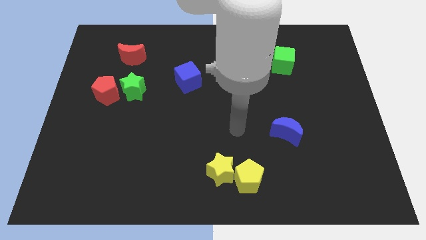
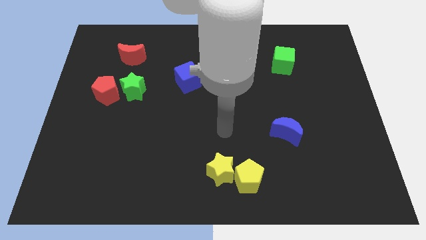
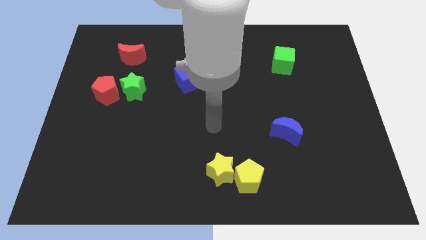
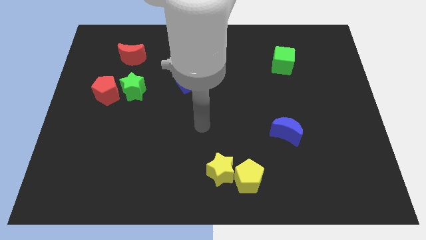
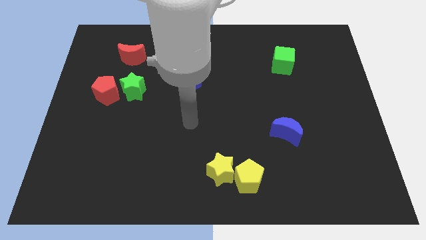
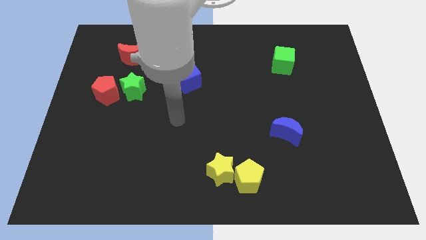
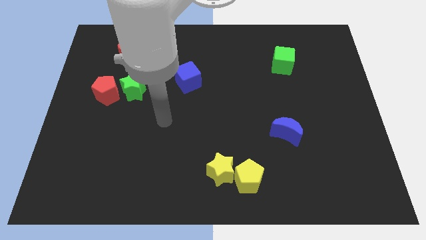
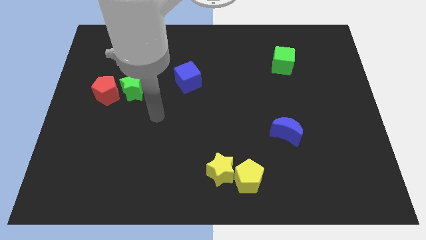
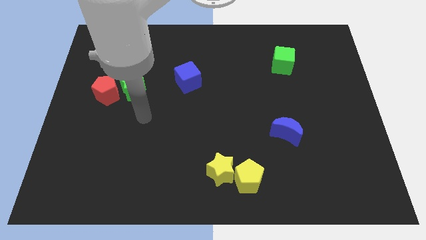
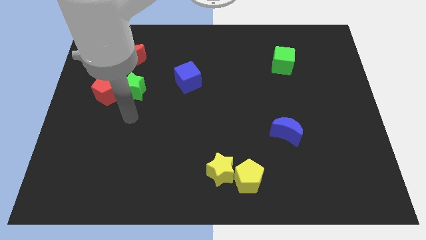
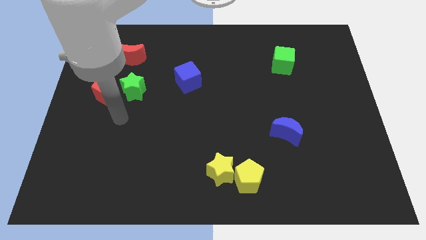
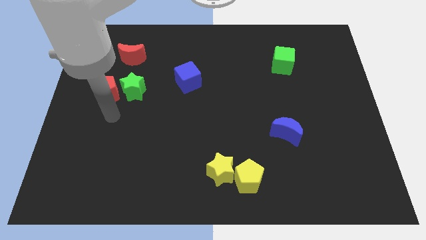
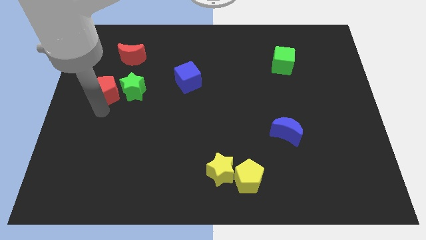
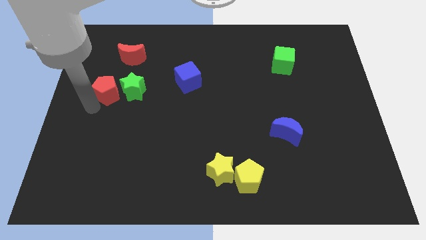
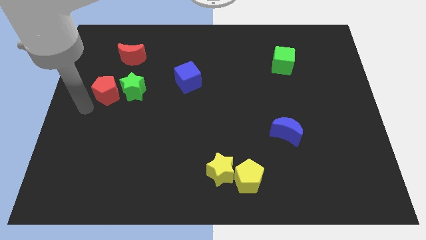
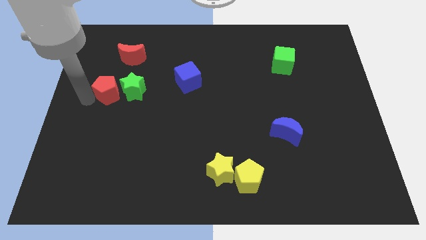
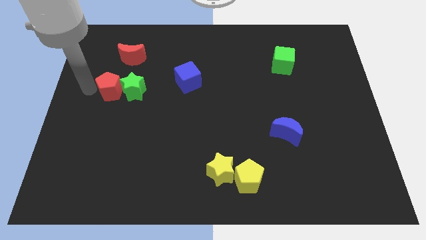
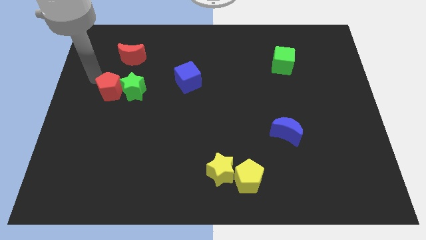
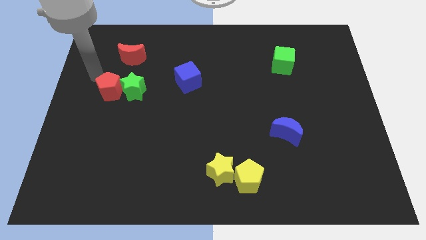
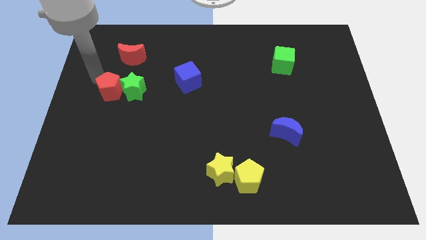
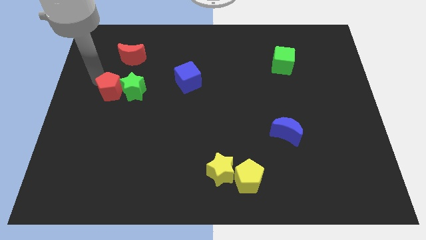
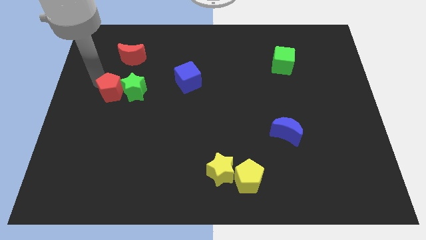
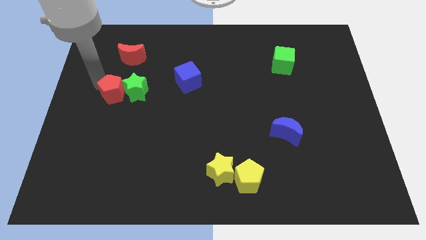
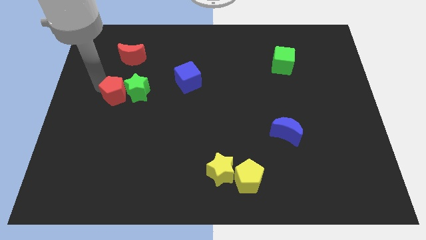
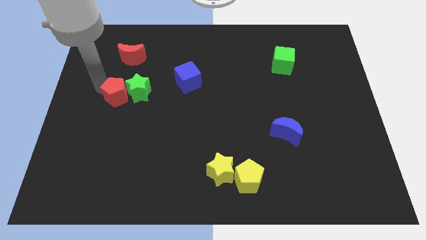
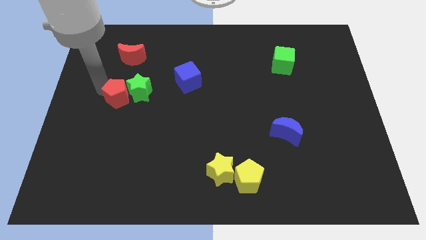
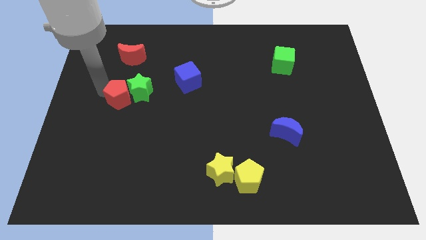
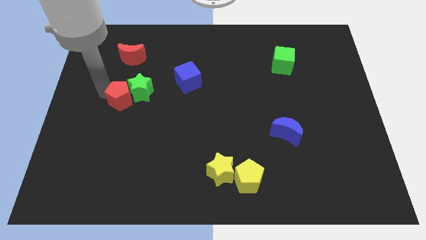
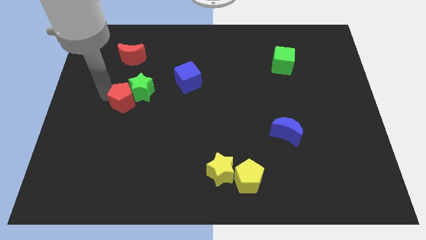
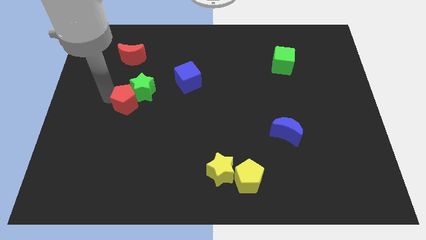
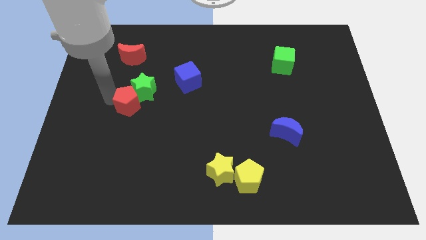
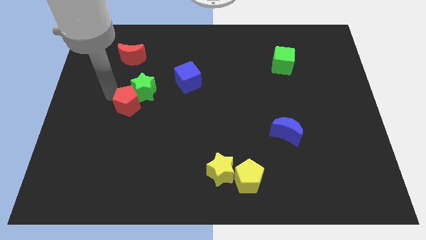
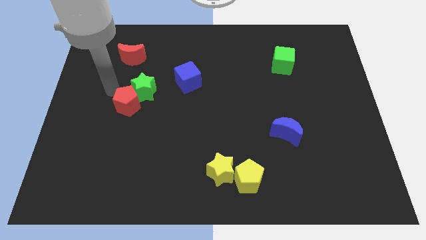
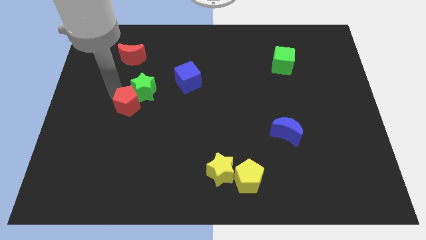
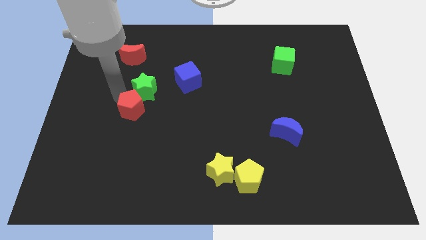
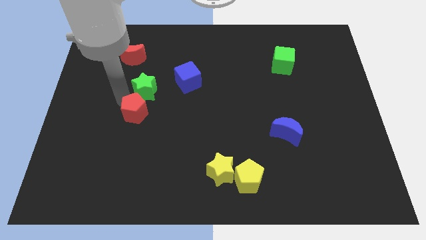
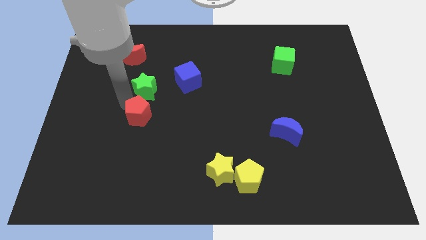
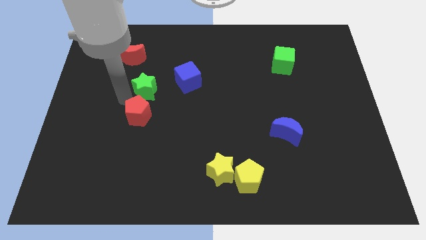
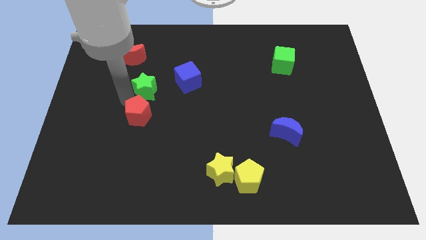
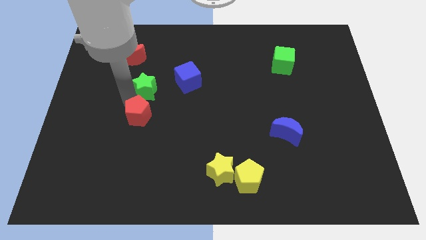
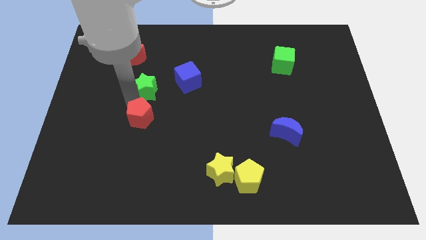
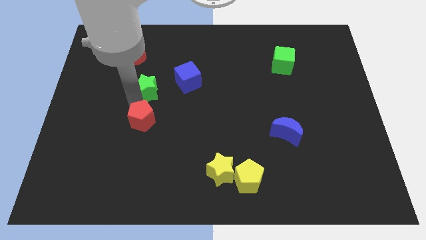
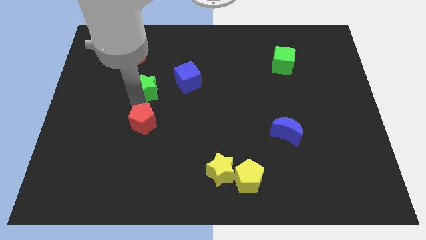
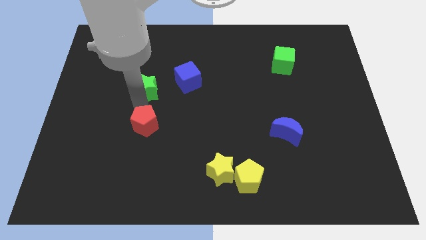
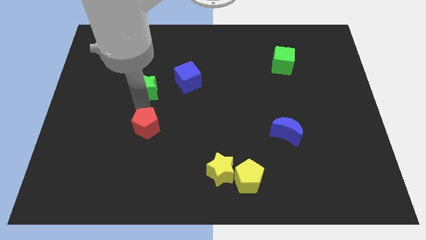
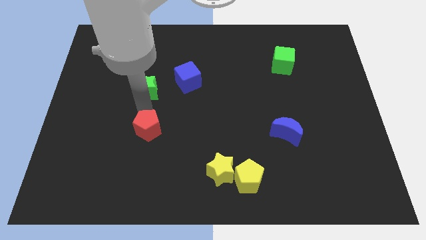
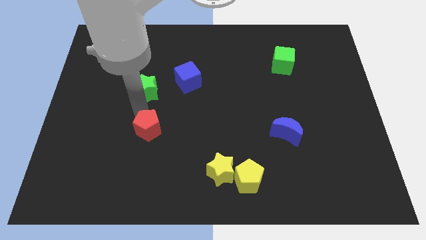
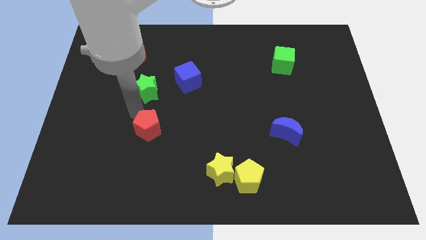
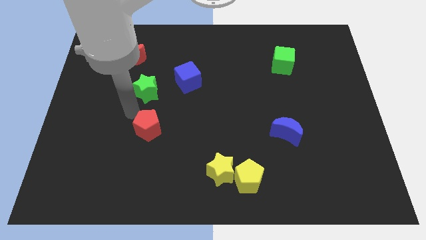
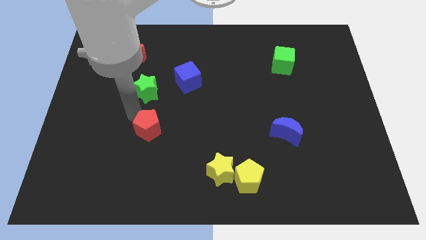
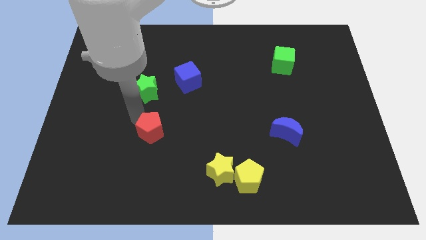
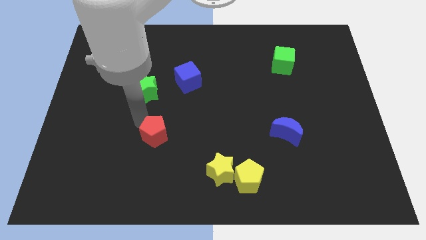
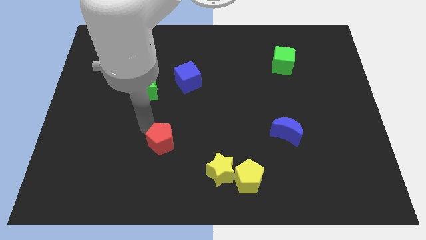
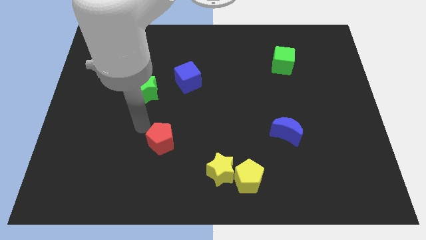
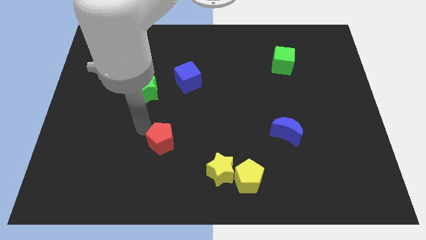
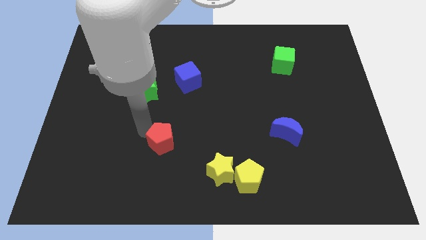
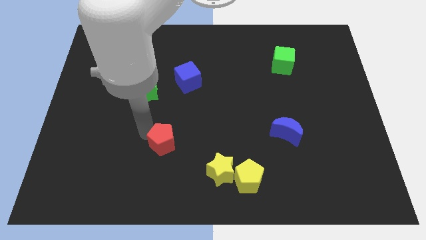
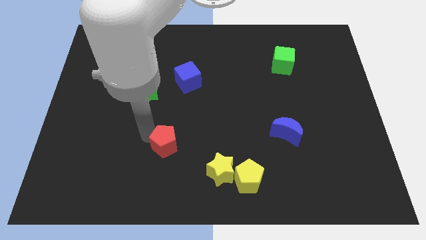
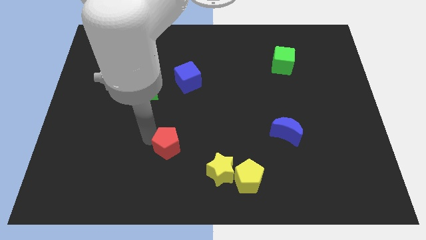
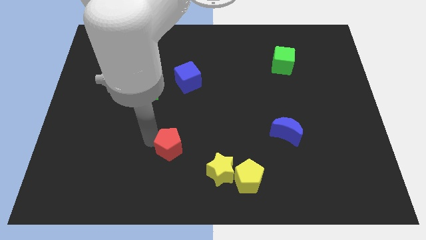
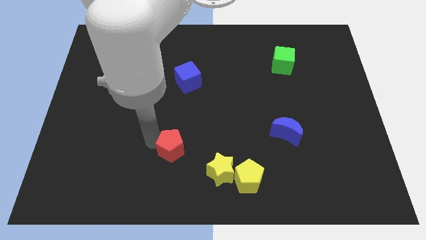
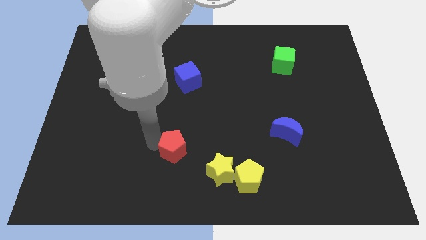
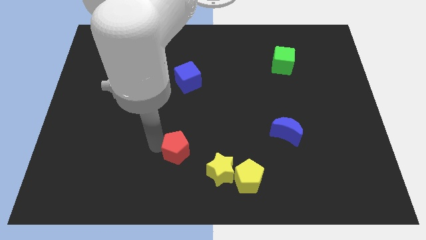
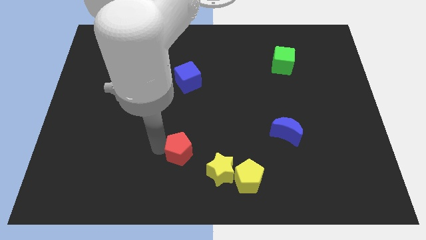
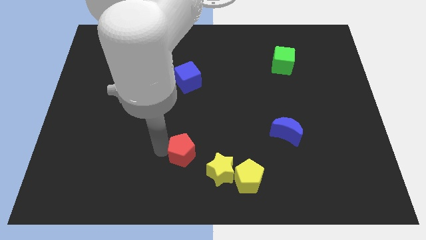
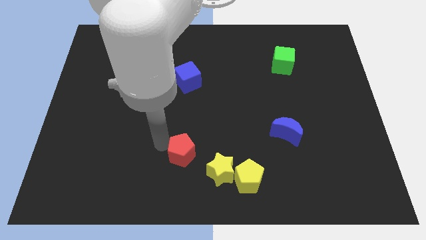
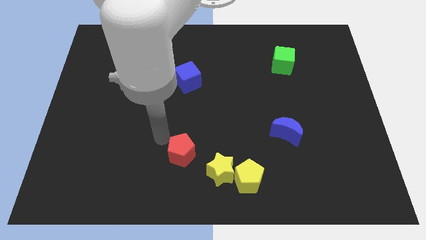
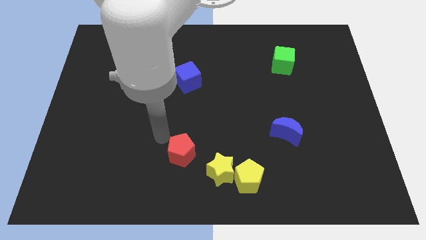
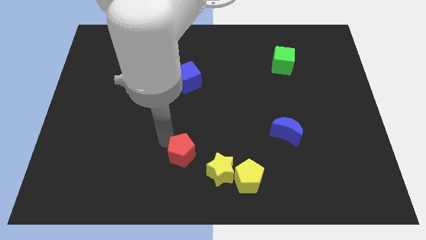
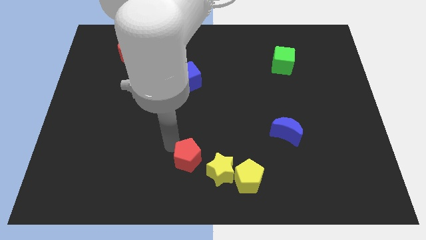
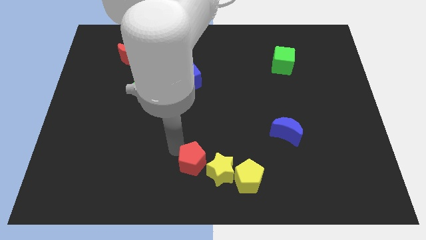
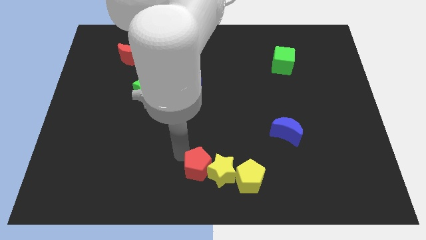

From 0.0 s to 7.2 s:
move the red pentagon towards the yellow star
